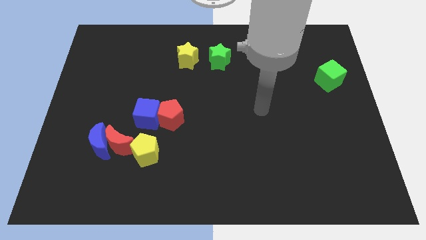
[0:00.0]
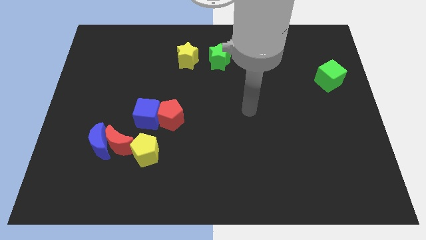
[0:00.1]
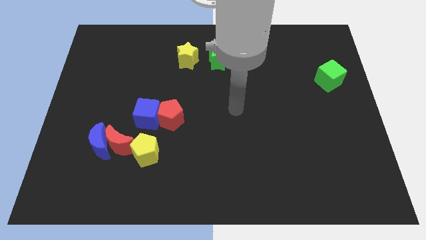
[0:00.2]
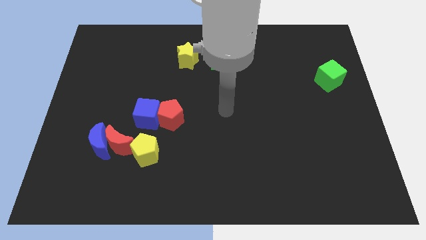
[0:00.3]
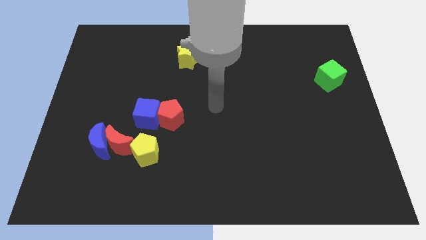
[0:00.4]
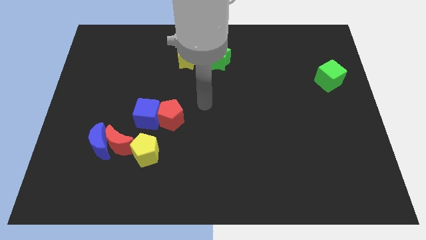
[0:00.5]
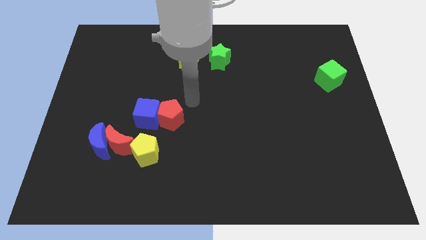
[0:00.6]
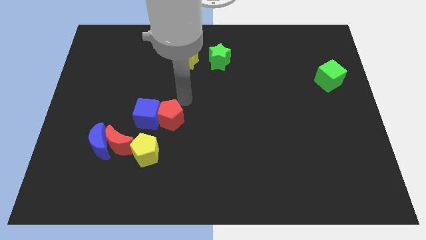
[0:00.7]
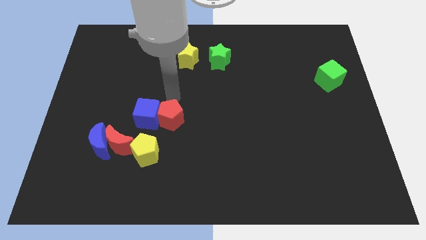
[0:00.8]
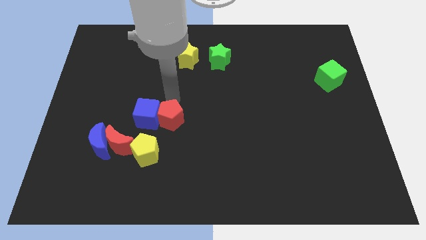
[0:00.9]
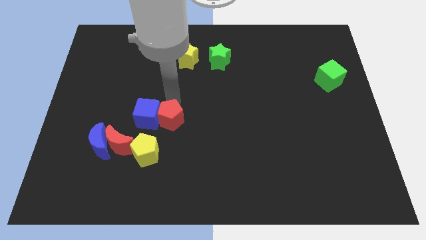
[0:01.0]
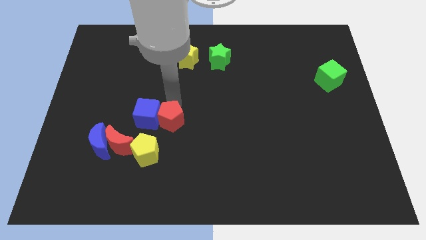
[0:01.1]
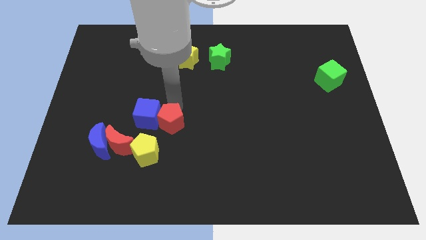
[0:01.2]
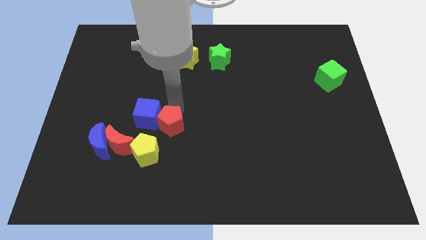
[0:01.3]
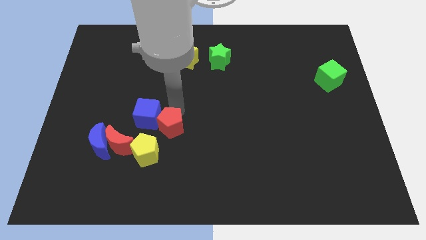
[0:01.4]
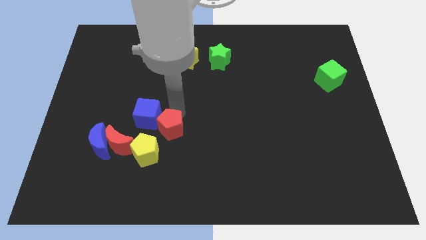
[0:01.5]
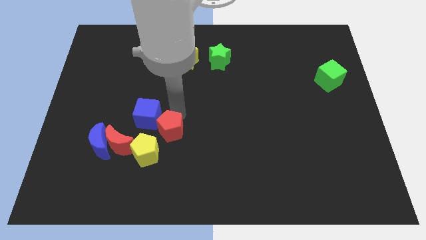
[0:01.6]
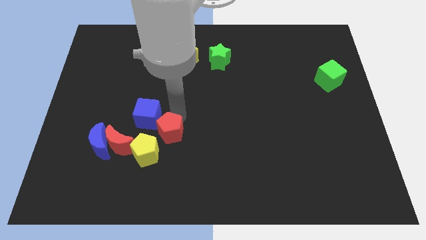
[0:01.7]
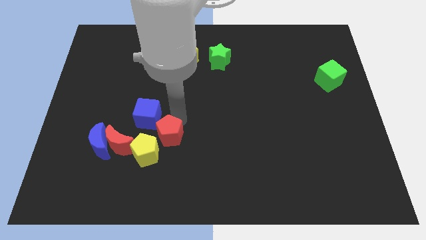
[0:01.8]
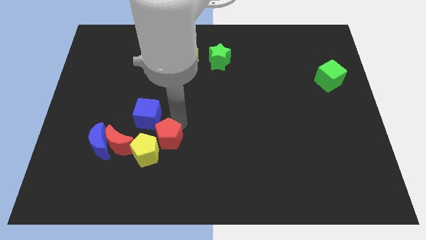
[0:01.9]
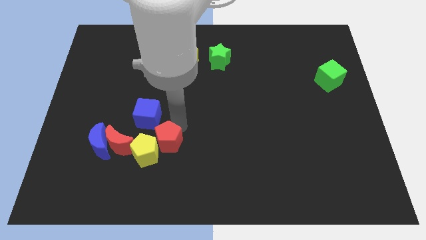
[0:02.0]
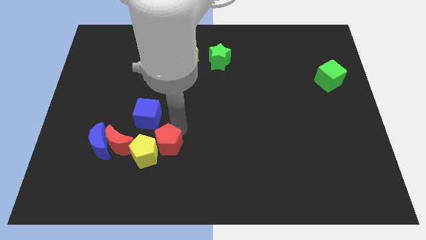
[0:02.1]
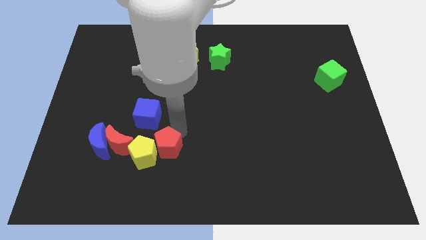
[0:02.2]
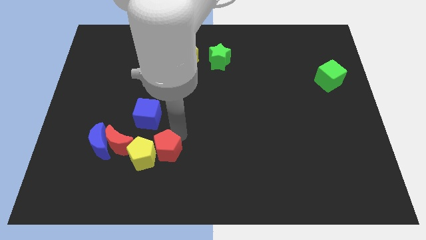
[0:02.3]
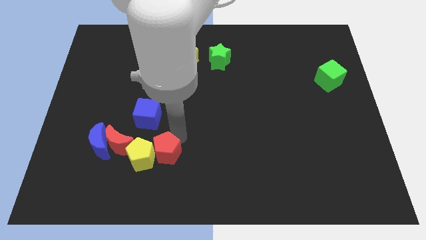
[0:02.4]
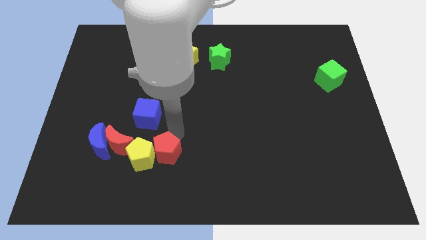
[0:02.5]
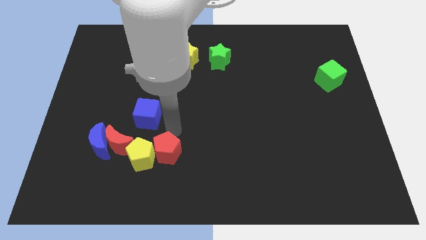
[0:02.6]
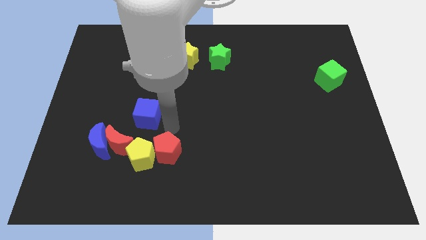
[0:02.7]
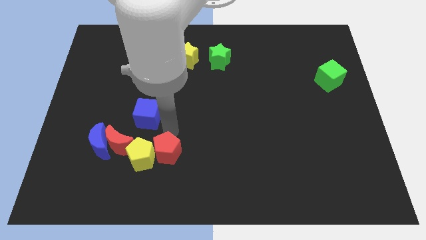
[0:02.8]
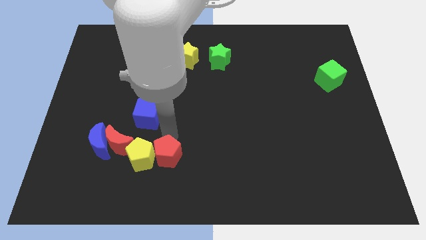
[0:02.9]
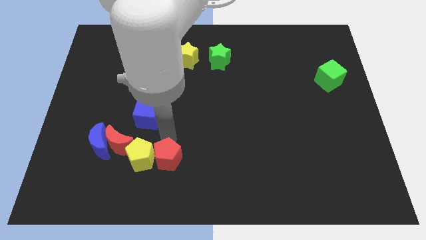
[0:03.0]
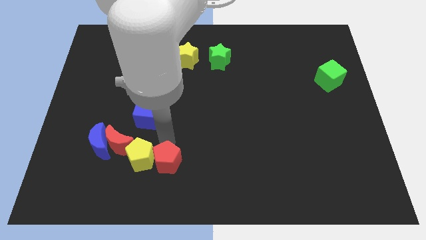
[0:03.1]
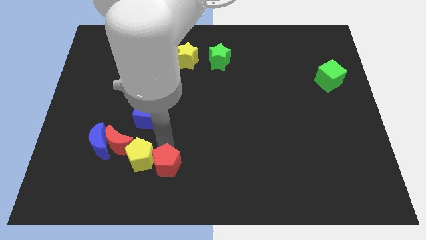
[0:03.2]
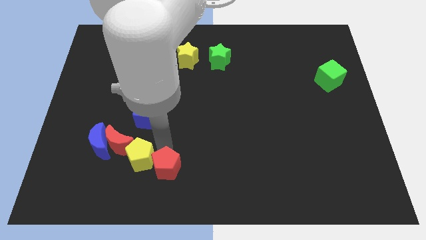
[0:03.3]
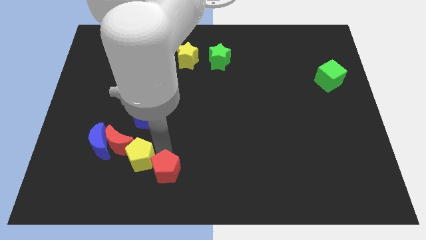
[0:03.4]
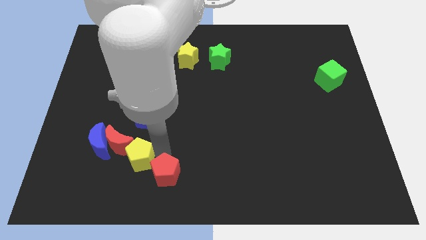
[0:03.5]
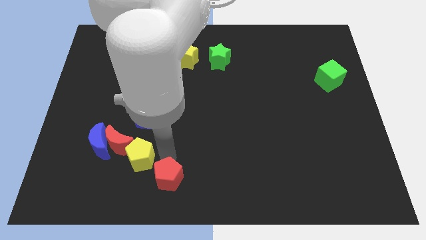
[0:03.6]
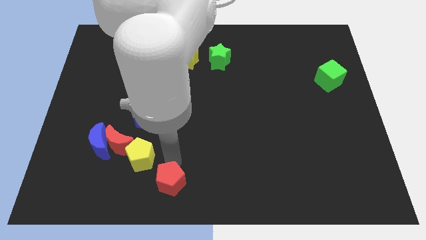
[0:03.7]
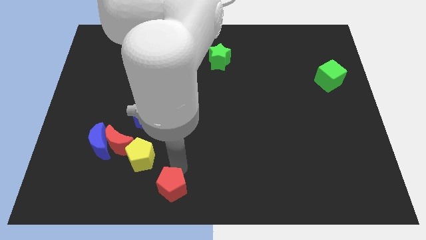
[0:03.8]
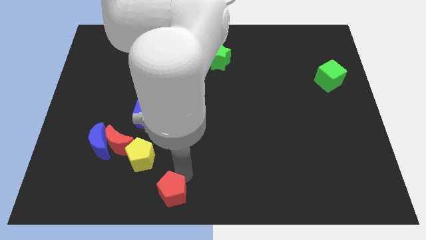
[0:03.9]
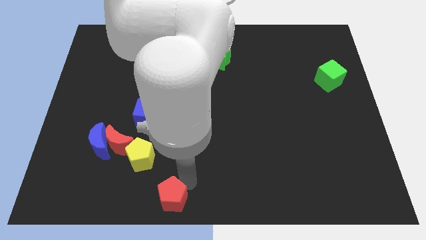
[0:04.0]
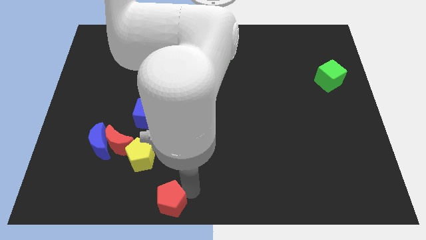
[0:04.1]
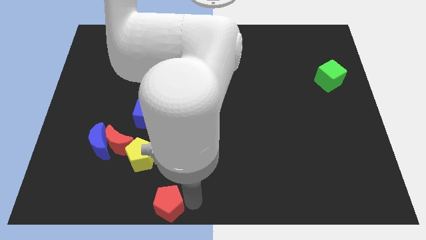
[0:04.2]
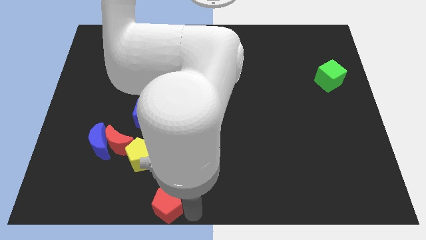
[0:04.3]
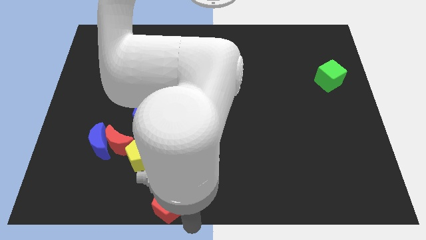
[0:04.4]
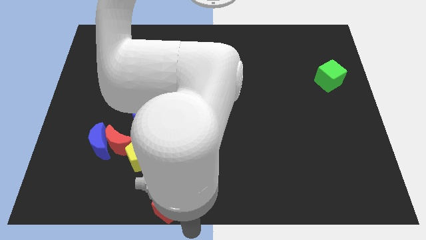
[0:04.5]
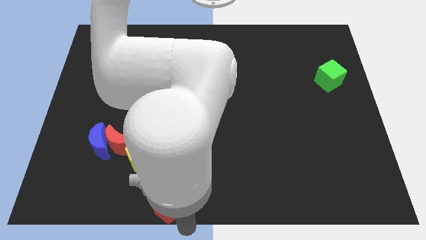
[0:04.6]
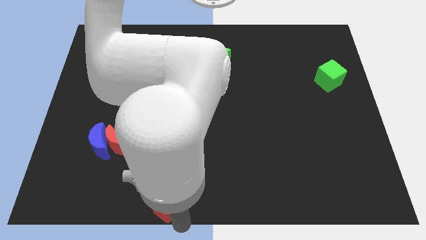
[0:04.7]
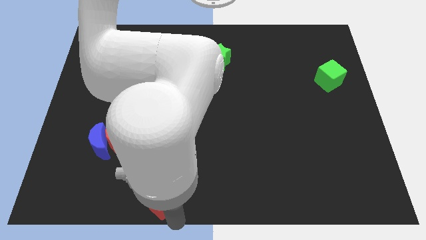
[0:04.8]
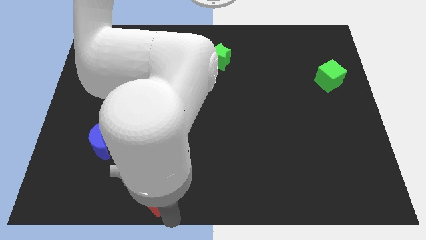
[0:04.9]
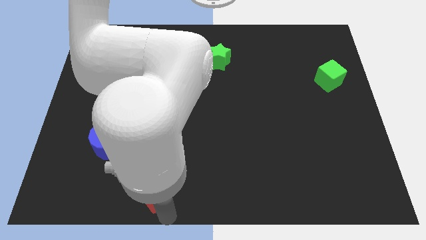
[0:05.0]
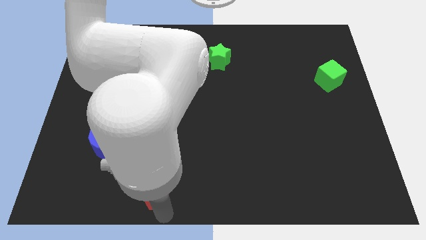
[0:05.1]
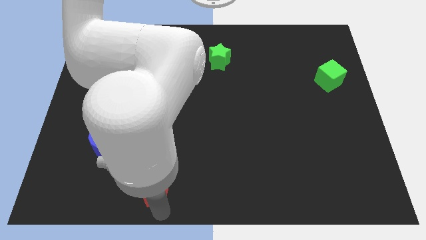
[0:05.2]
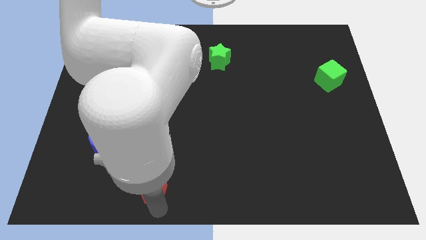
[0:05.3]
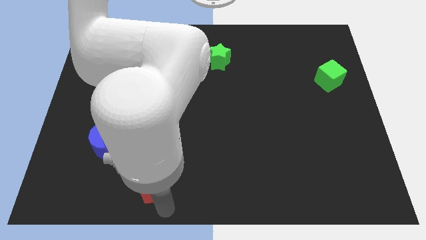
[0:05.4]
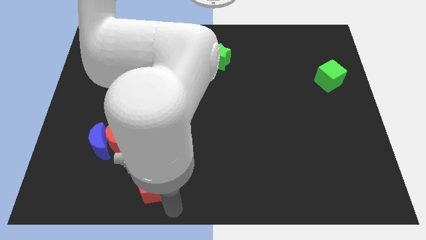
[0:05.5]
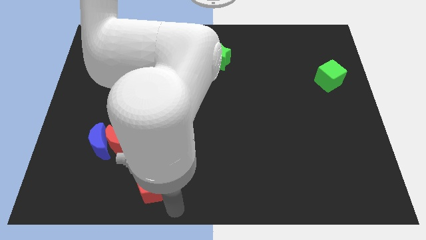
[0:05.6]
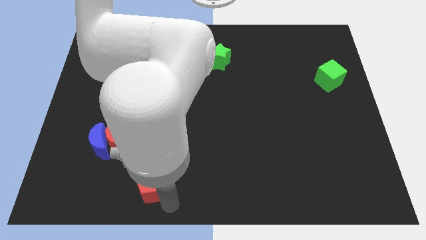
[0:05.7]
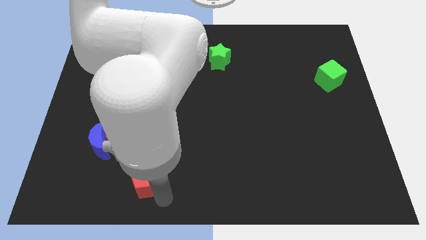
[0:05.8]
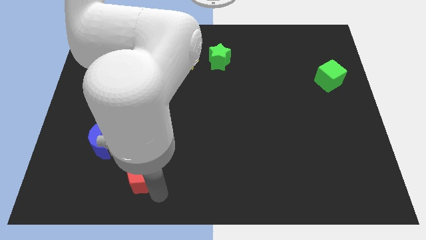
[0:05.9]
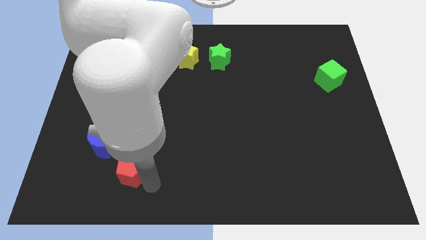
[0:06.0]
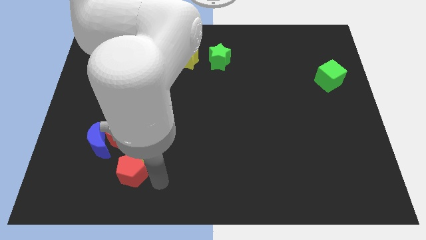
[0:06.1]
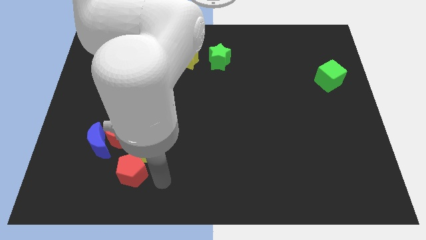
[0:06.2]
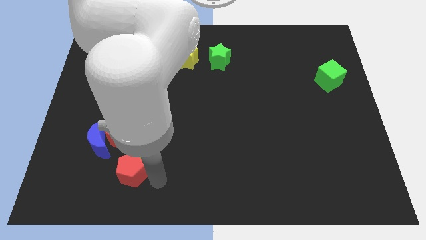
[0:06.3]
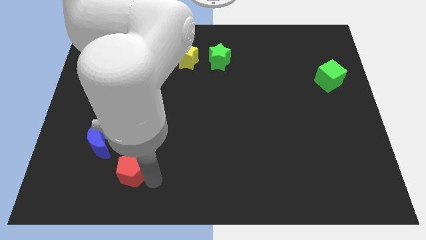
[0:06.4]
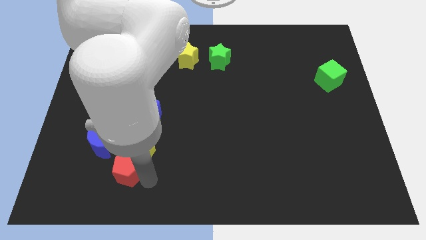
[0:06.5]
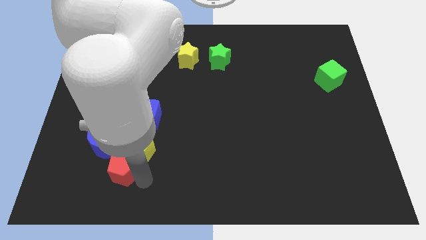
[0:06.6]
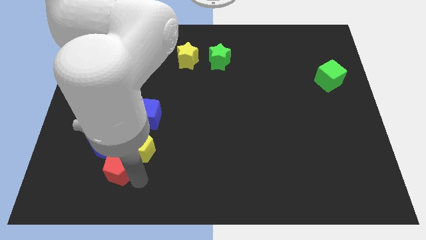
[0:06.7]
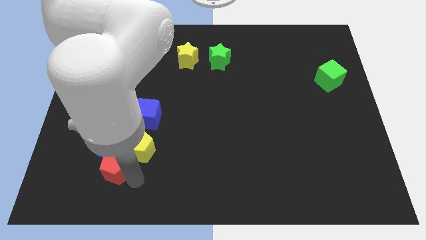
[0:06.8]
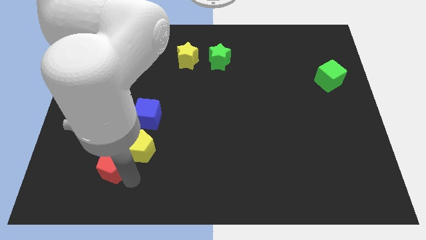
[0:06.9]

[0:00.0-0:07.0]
put the red pentagon to the bottom left of the red moon
